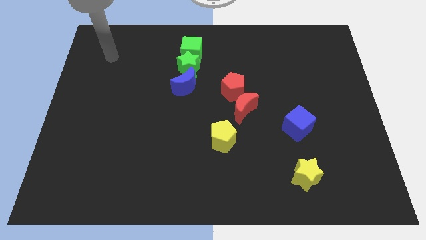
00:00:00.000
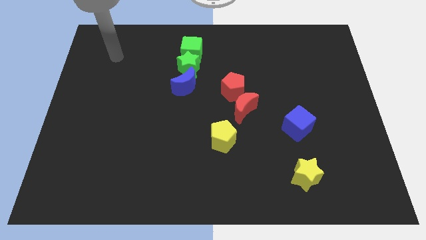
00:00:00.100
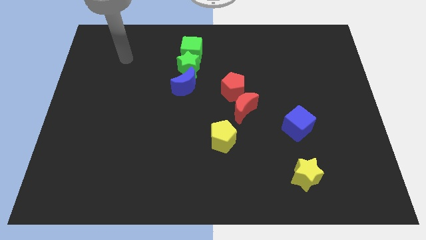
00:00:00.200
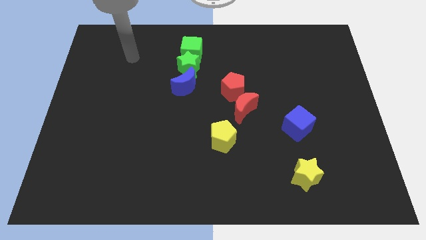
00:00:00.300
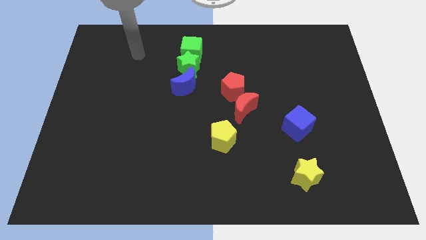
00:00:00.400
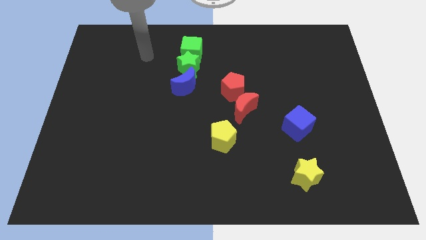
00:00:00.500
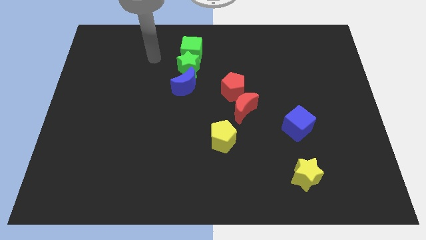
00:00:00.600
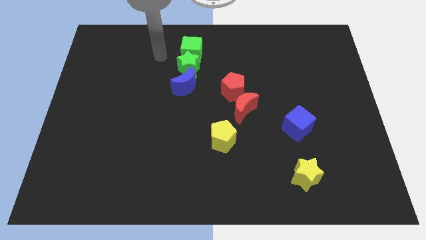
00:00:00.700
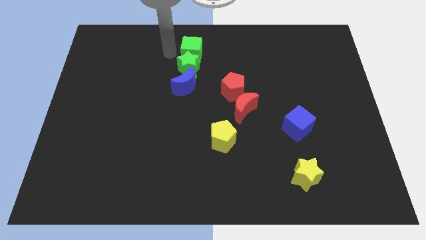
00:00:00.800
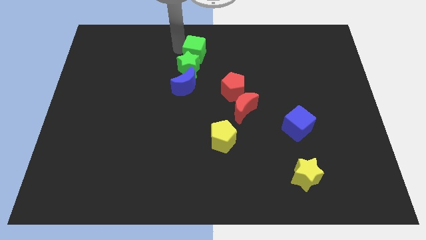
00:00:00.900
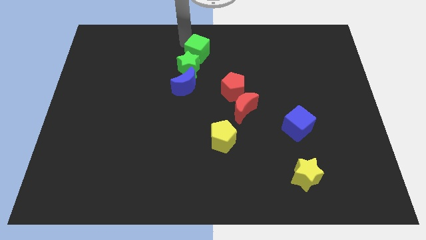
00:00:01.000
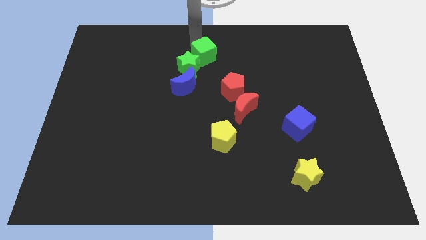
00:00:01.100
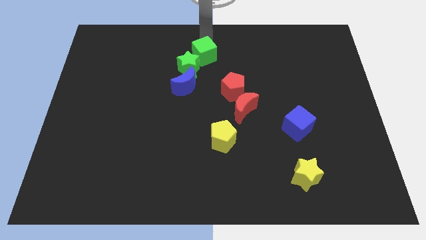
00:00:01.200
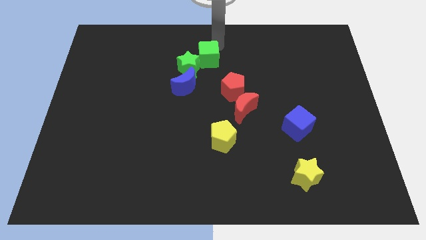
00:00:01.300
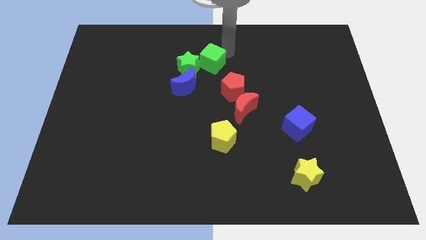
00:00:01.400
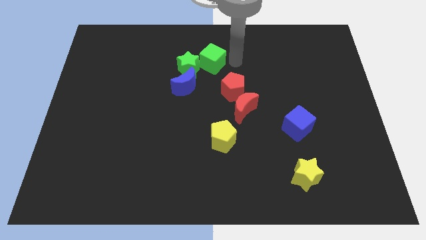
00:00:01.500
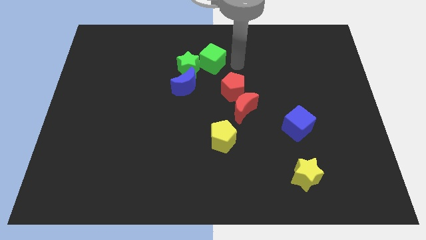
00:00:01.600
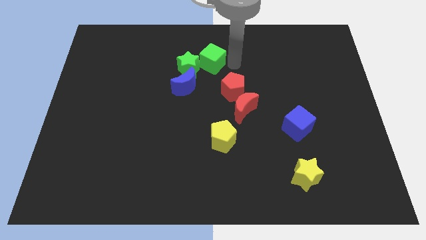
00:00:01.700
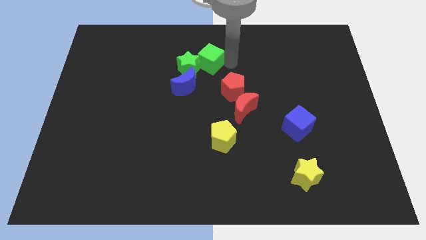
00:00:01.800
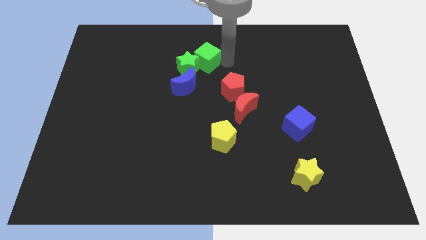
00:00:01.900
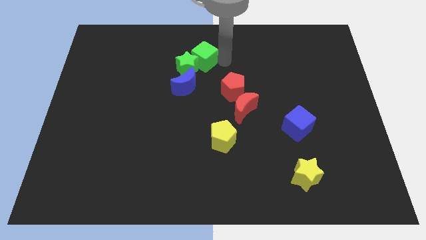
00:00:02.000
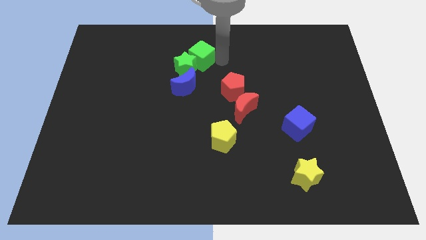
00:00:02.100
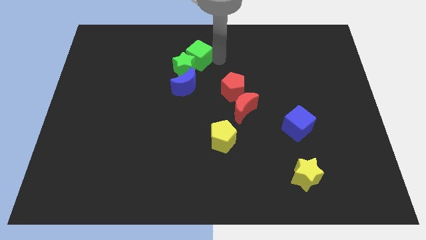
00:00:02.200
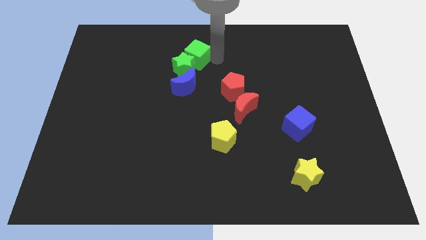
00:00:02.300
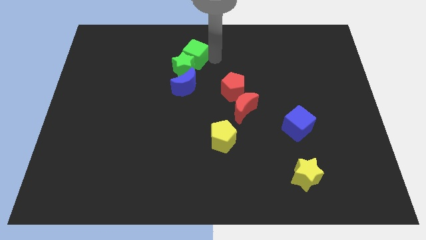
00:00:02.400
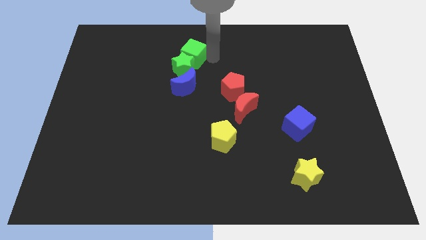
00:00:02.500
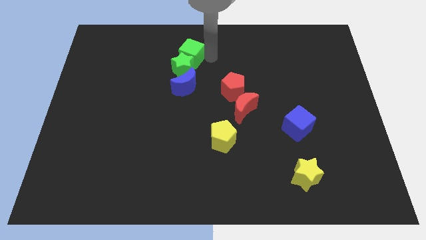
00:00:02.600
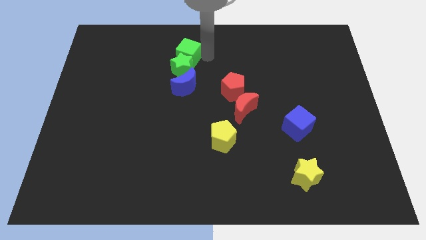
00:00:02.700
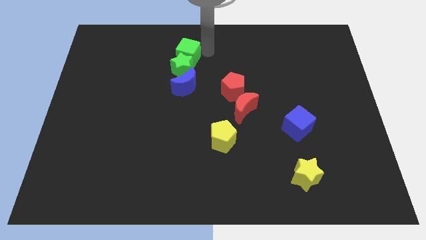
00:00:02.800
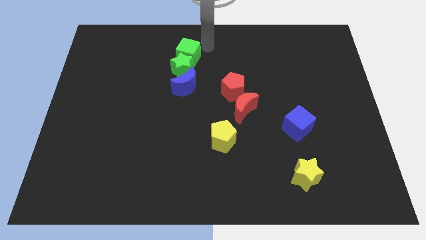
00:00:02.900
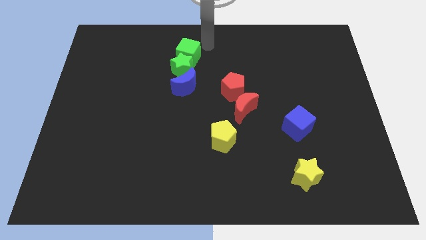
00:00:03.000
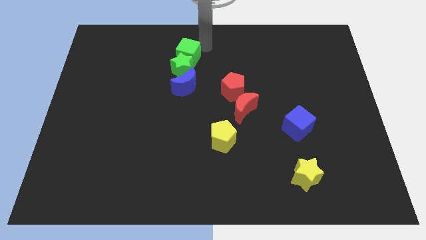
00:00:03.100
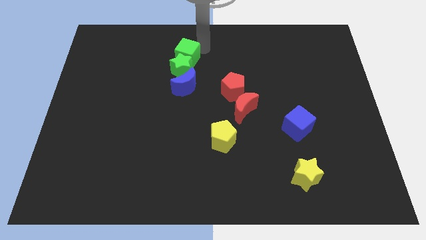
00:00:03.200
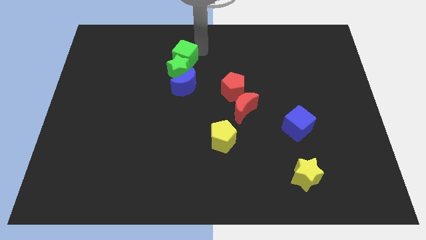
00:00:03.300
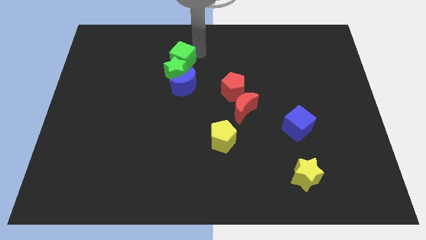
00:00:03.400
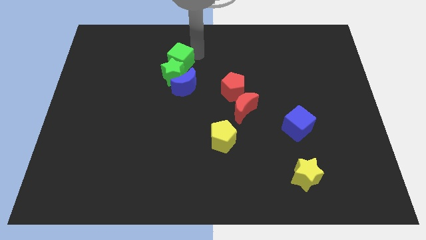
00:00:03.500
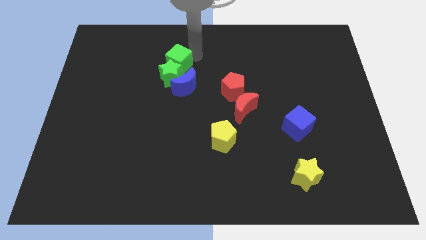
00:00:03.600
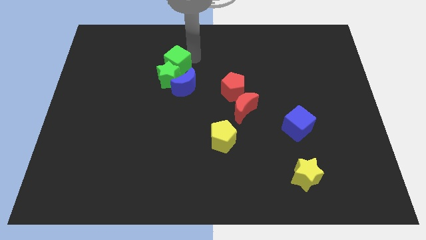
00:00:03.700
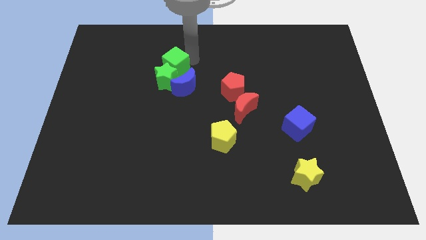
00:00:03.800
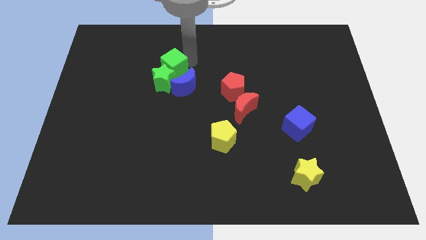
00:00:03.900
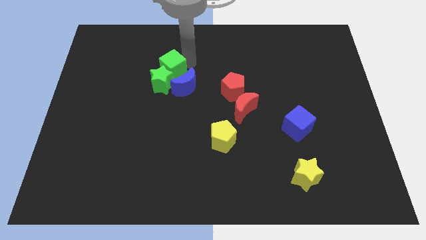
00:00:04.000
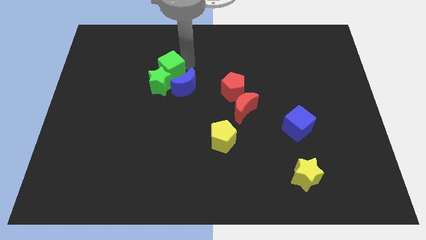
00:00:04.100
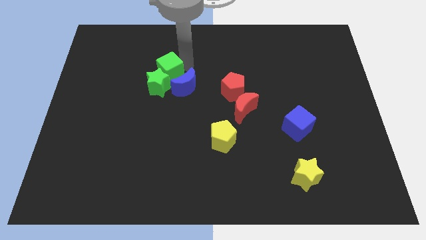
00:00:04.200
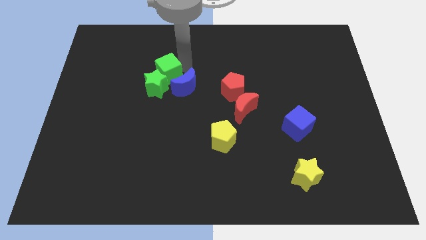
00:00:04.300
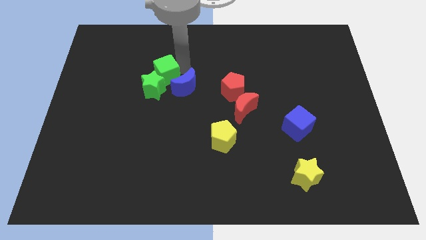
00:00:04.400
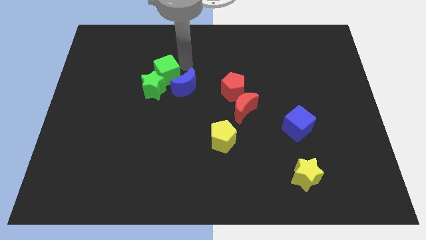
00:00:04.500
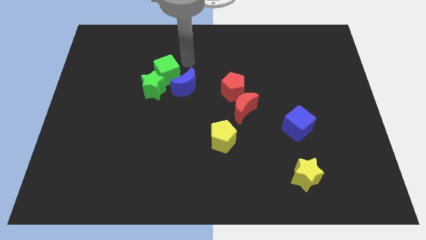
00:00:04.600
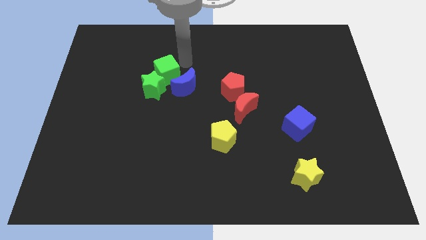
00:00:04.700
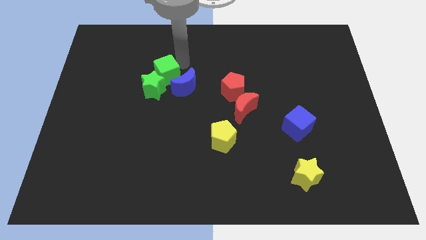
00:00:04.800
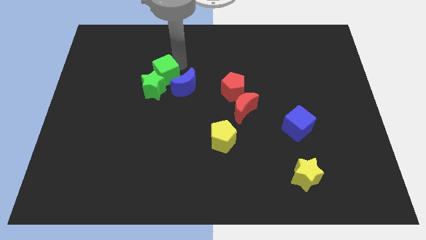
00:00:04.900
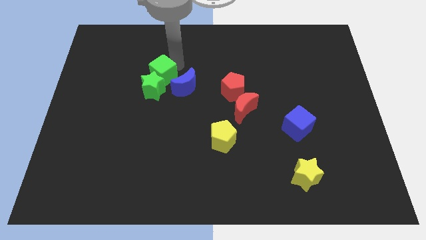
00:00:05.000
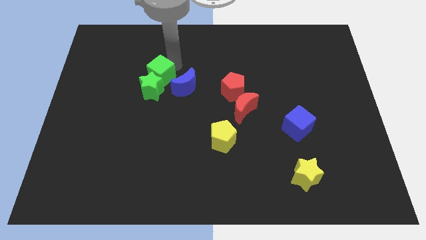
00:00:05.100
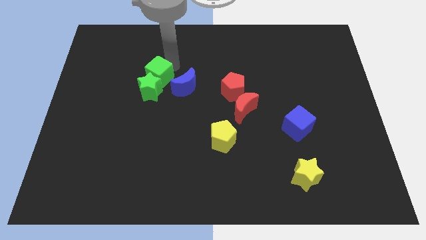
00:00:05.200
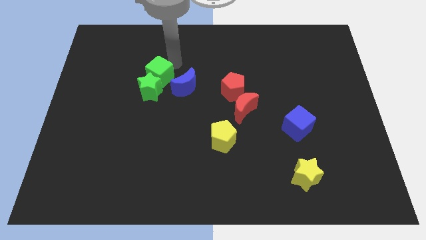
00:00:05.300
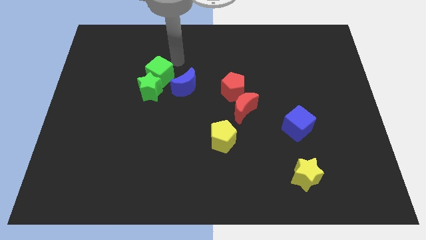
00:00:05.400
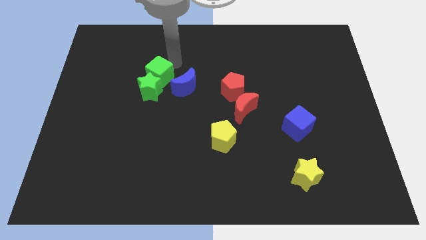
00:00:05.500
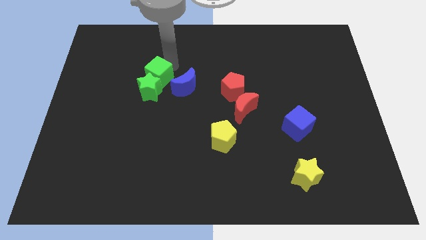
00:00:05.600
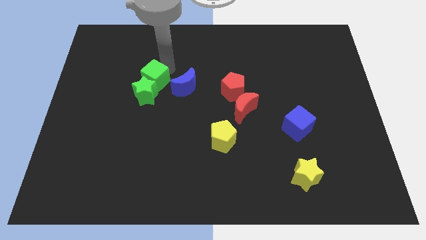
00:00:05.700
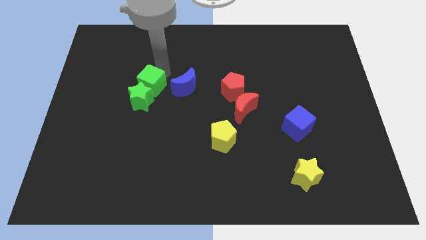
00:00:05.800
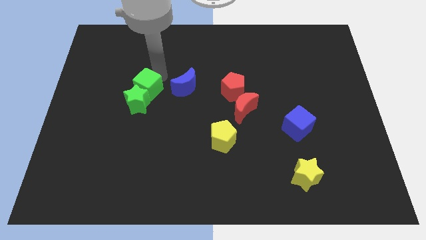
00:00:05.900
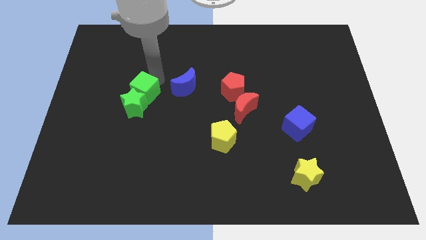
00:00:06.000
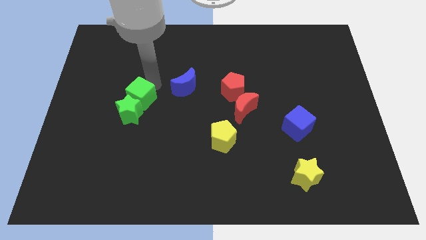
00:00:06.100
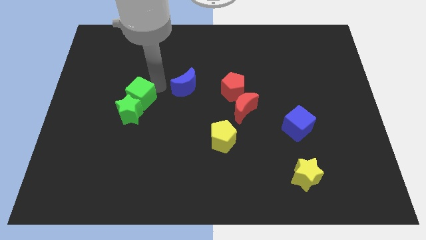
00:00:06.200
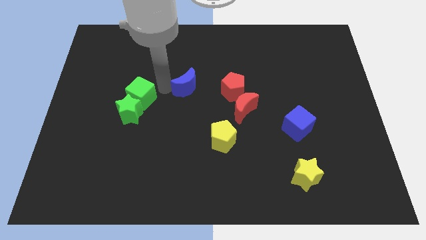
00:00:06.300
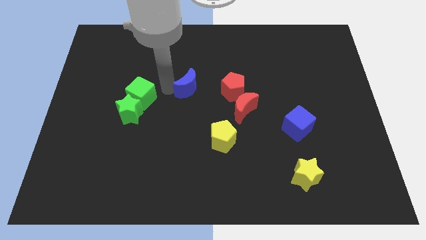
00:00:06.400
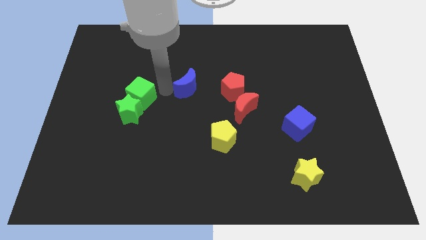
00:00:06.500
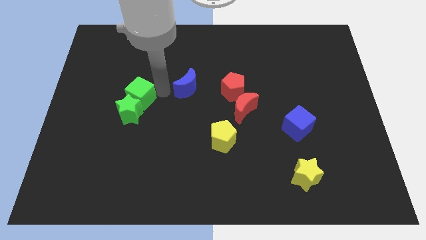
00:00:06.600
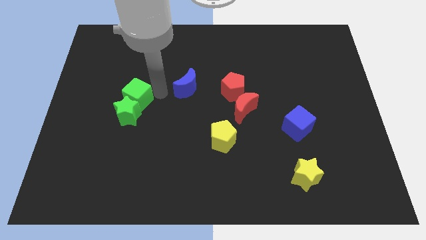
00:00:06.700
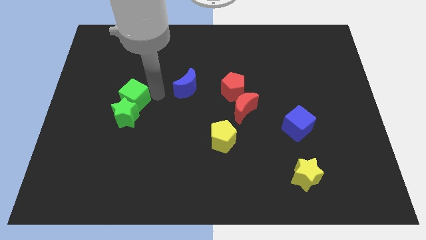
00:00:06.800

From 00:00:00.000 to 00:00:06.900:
slide the green cube down and to the left

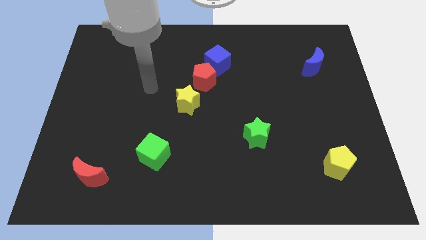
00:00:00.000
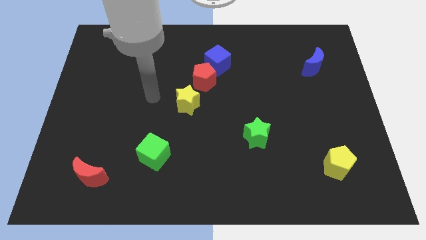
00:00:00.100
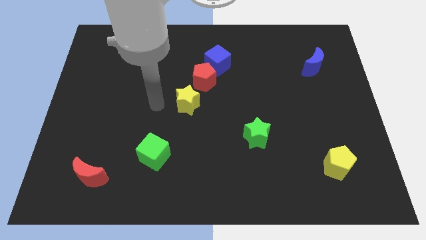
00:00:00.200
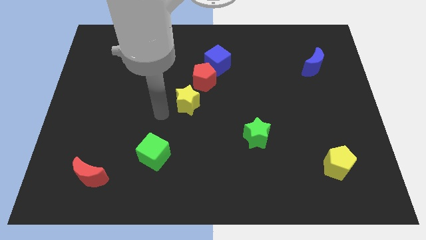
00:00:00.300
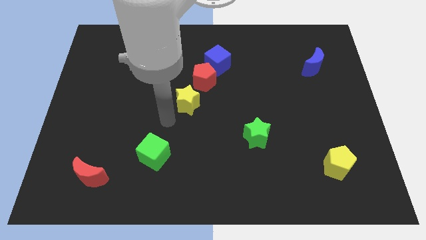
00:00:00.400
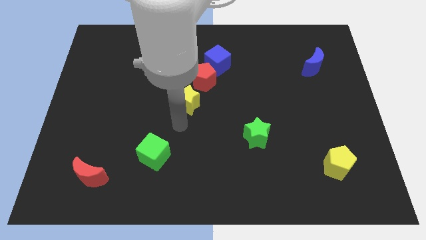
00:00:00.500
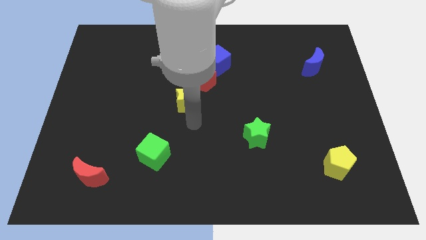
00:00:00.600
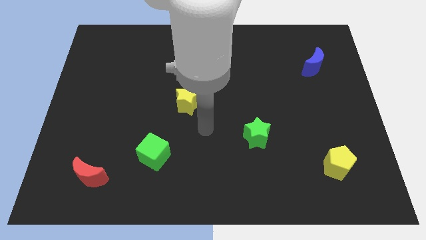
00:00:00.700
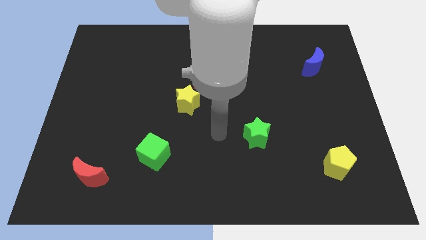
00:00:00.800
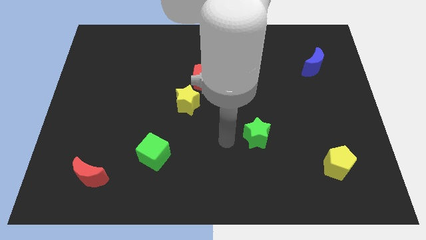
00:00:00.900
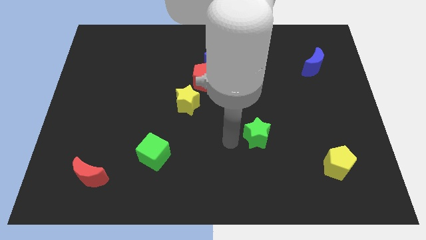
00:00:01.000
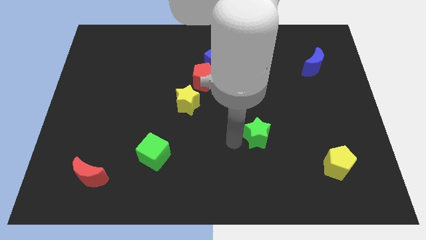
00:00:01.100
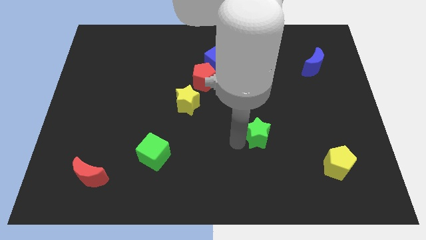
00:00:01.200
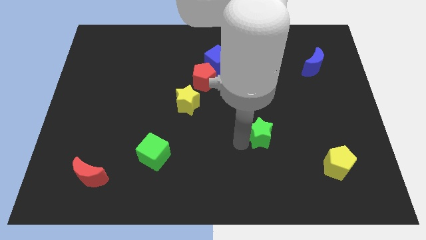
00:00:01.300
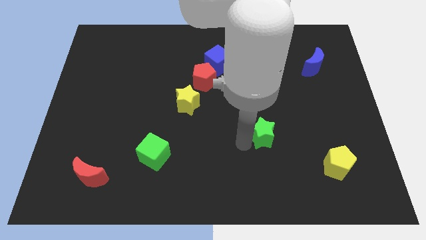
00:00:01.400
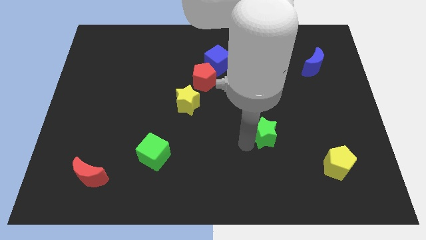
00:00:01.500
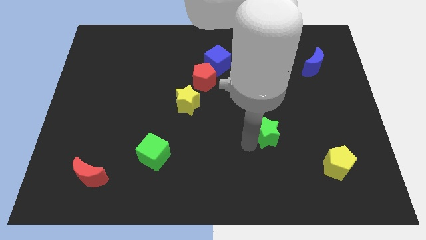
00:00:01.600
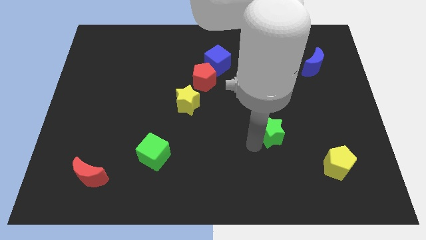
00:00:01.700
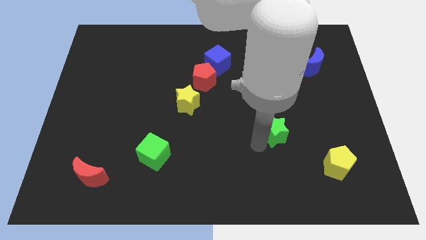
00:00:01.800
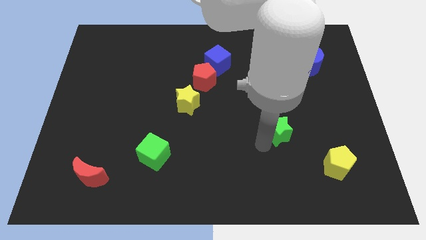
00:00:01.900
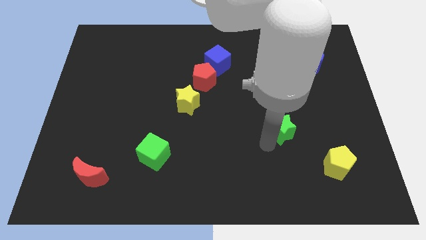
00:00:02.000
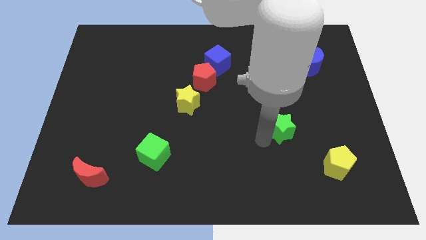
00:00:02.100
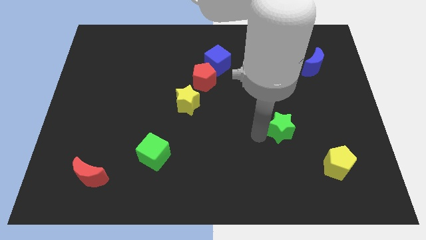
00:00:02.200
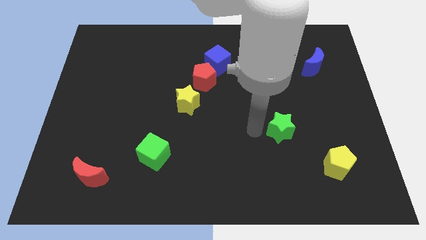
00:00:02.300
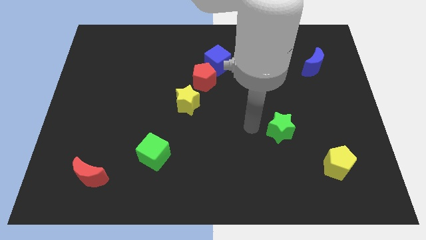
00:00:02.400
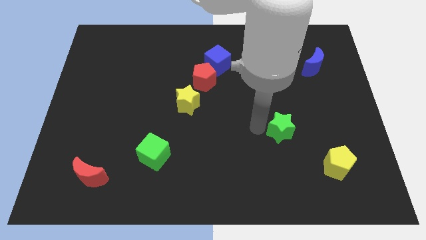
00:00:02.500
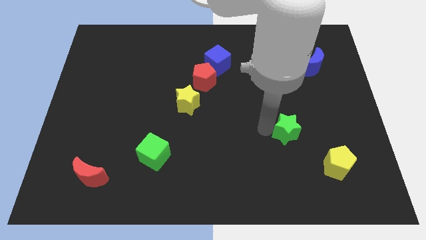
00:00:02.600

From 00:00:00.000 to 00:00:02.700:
move the green star a bit right
